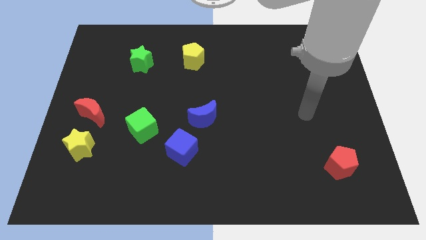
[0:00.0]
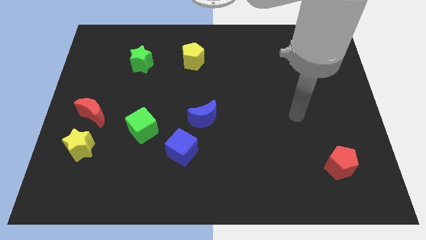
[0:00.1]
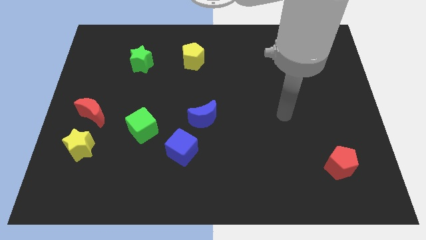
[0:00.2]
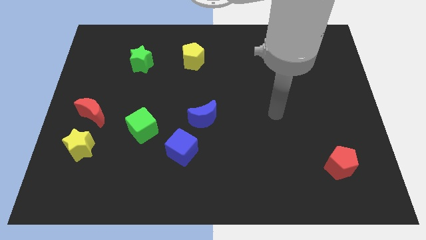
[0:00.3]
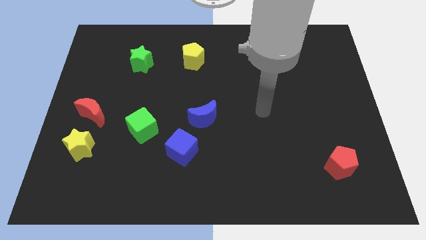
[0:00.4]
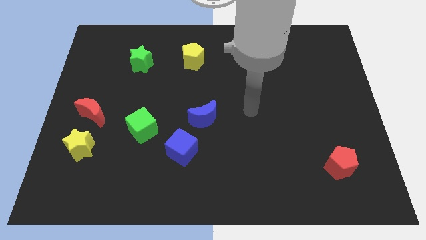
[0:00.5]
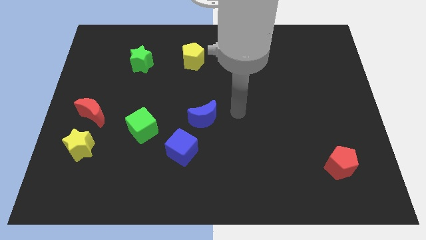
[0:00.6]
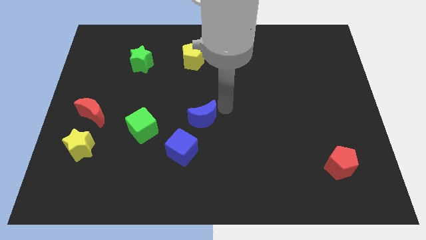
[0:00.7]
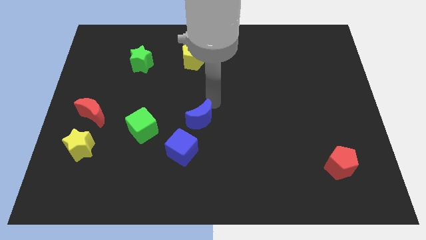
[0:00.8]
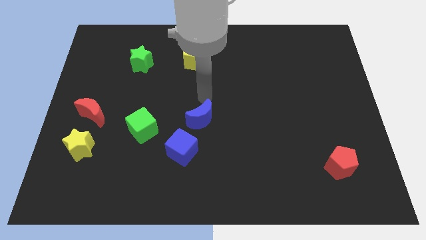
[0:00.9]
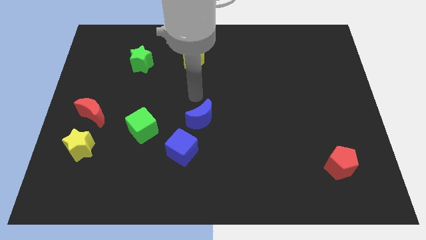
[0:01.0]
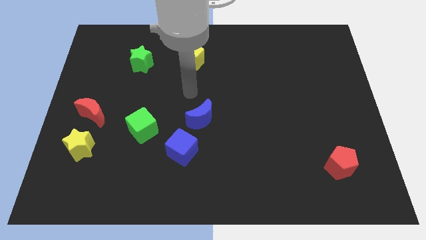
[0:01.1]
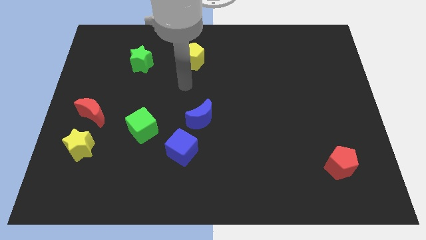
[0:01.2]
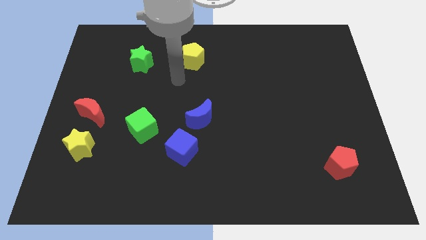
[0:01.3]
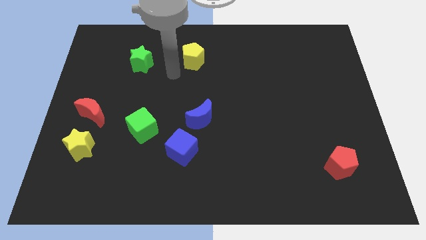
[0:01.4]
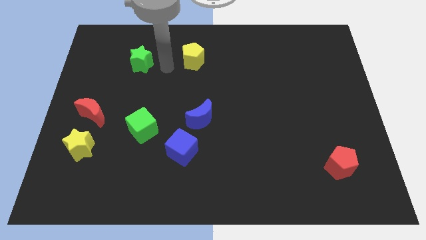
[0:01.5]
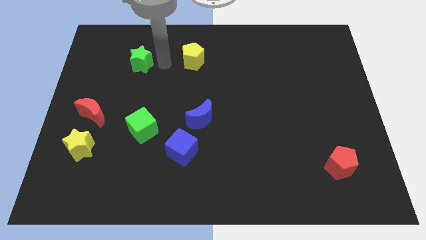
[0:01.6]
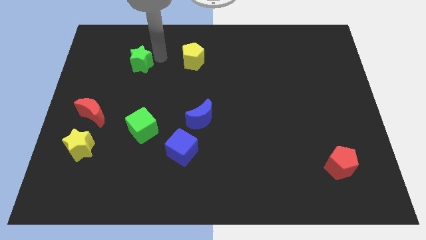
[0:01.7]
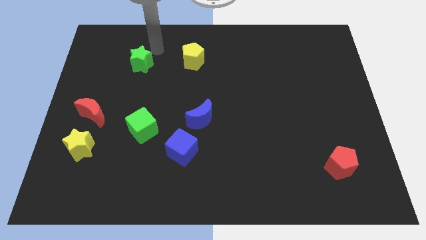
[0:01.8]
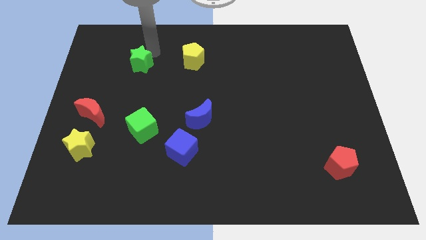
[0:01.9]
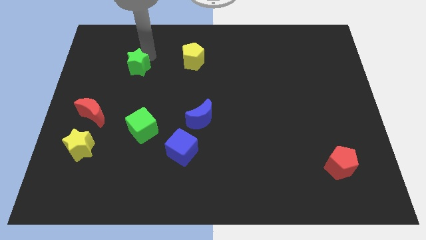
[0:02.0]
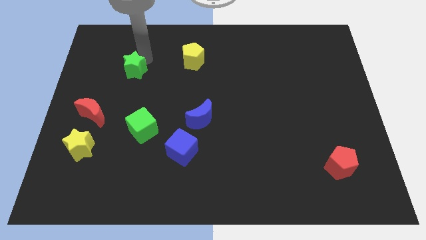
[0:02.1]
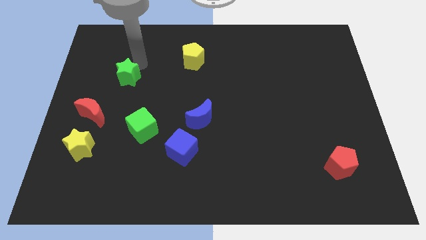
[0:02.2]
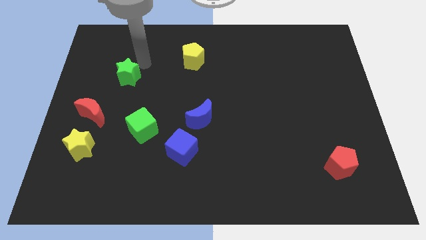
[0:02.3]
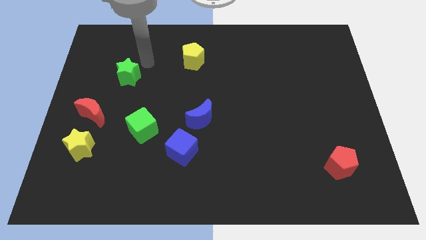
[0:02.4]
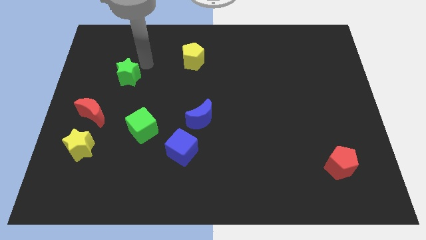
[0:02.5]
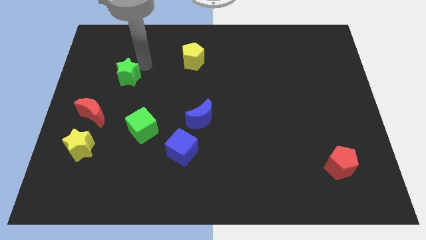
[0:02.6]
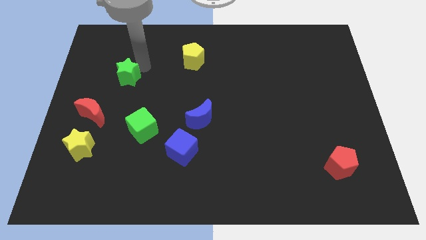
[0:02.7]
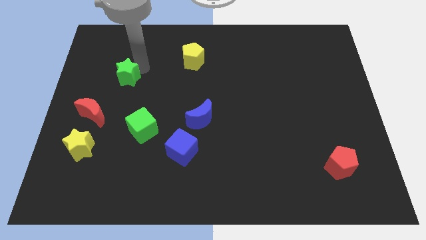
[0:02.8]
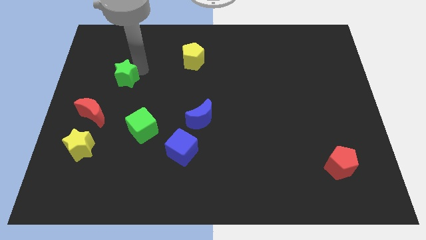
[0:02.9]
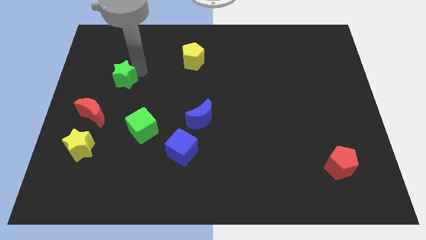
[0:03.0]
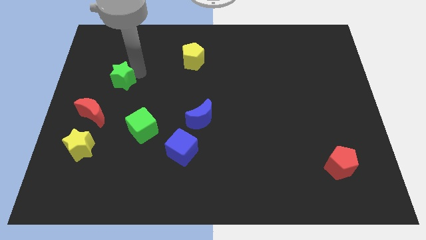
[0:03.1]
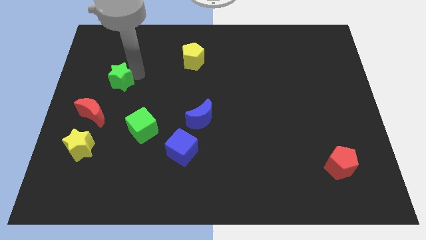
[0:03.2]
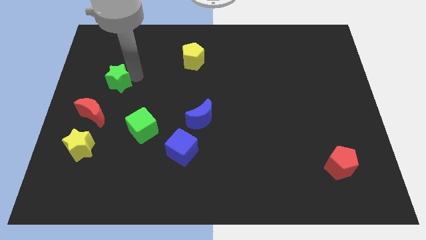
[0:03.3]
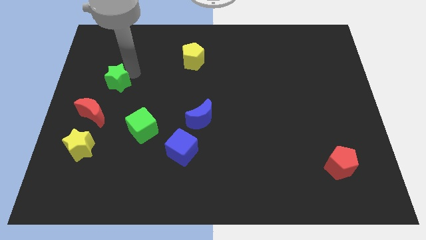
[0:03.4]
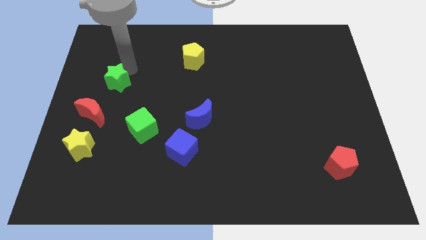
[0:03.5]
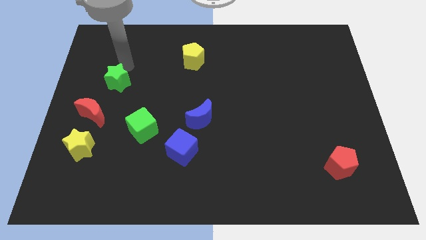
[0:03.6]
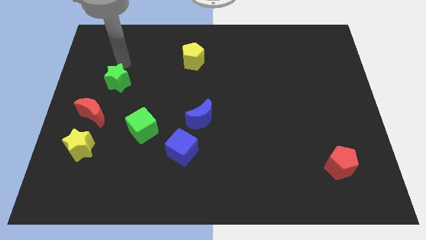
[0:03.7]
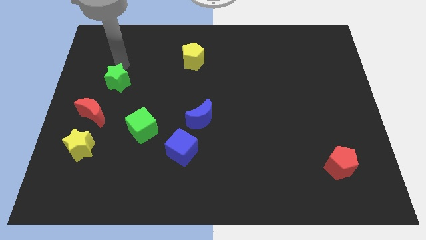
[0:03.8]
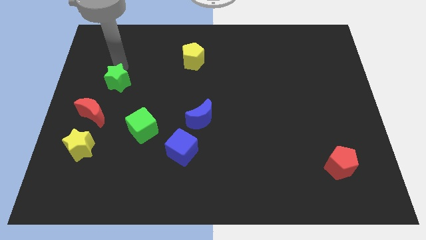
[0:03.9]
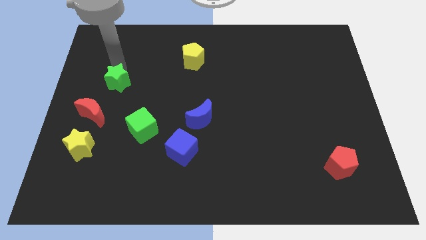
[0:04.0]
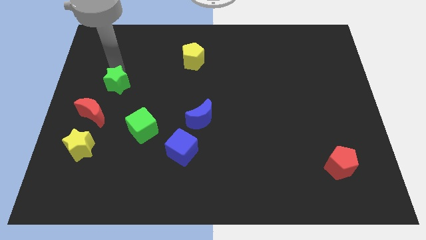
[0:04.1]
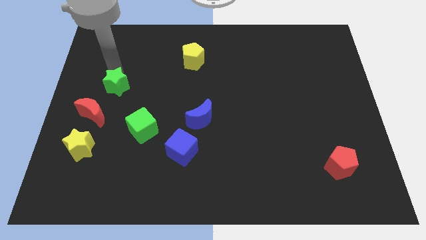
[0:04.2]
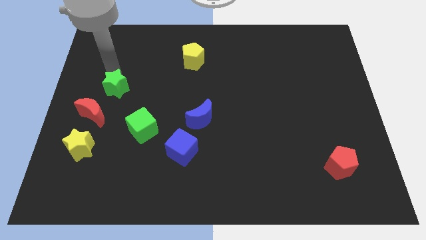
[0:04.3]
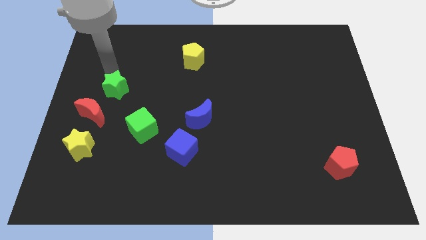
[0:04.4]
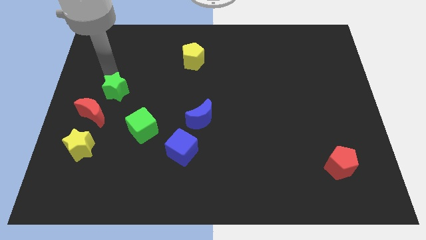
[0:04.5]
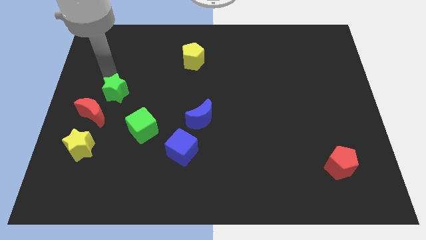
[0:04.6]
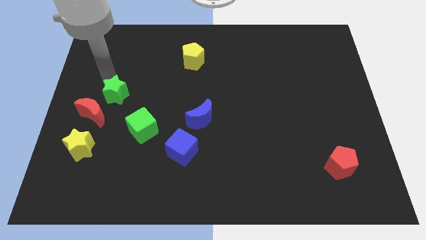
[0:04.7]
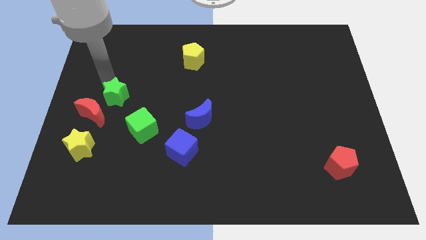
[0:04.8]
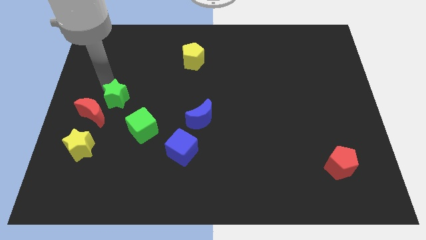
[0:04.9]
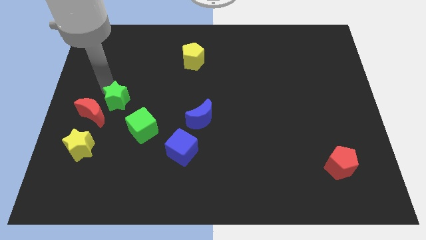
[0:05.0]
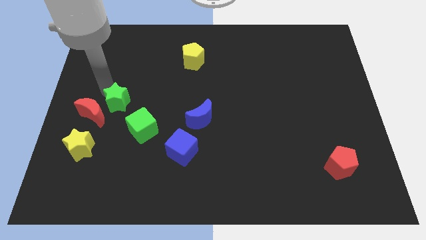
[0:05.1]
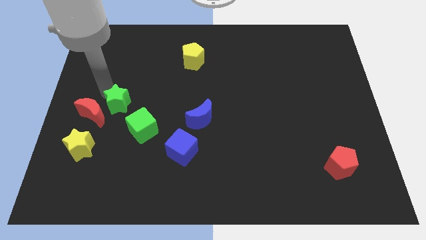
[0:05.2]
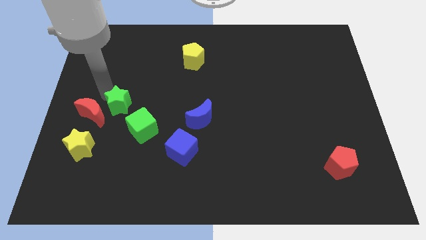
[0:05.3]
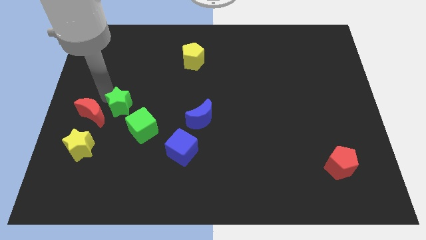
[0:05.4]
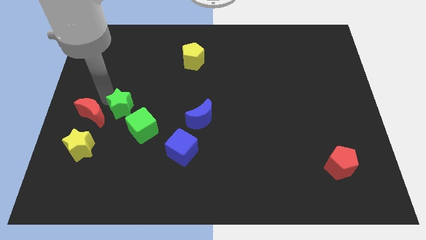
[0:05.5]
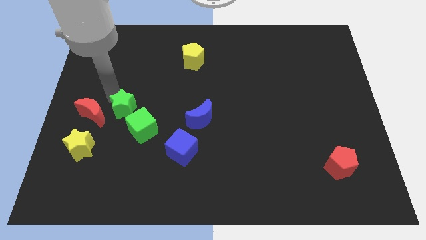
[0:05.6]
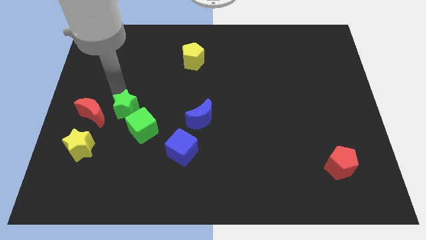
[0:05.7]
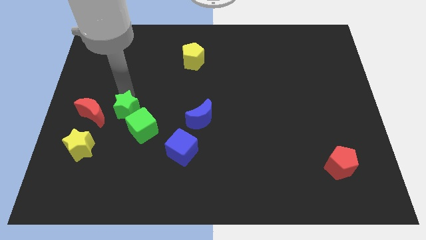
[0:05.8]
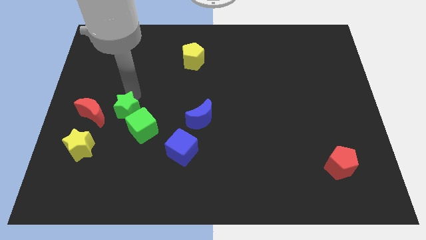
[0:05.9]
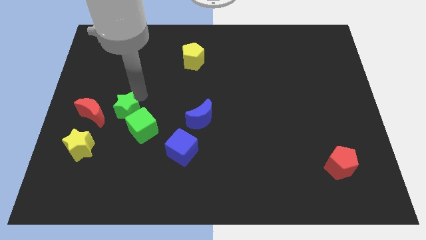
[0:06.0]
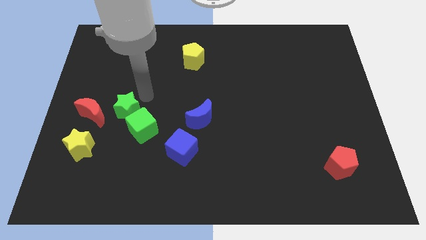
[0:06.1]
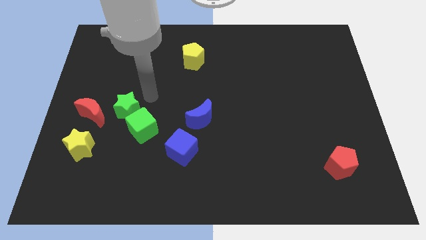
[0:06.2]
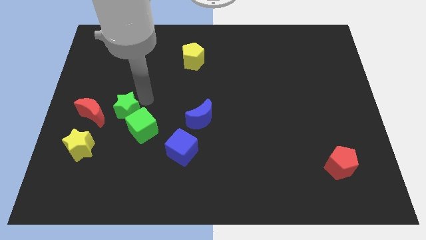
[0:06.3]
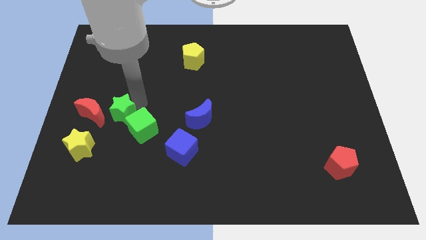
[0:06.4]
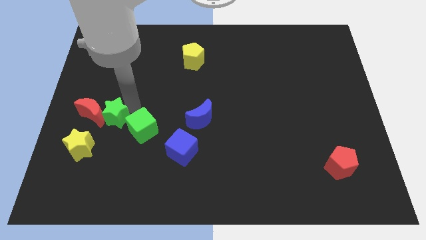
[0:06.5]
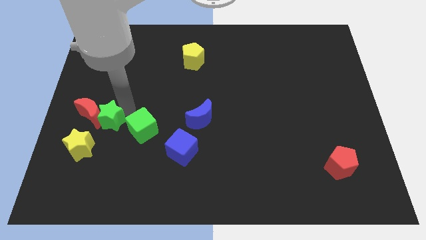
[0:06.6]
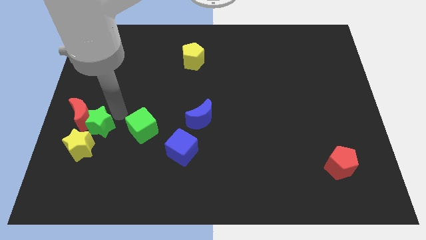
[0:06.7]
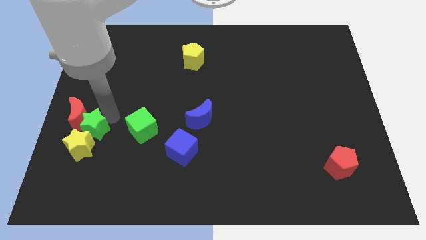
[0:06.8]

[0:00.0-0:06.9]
slide the green star to the yellow star
